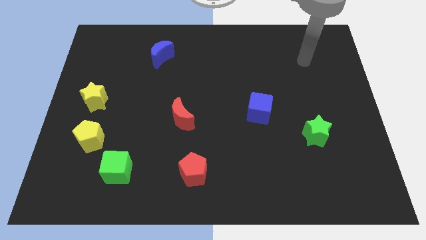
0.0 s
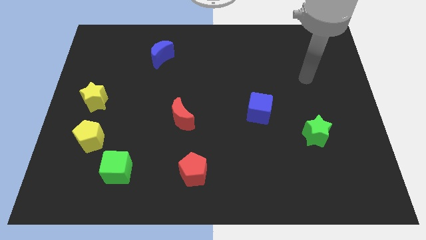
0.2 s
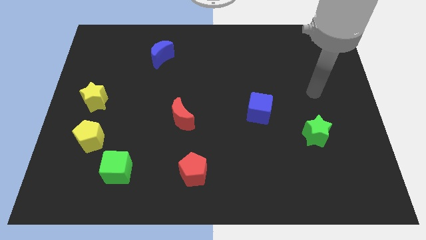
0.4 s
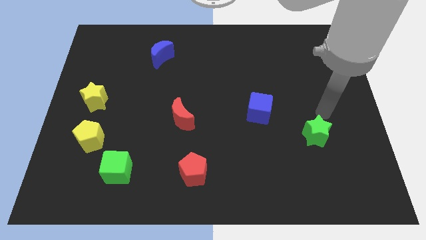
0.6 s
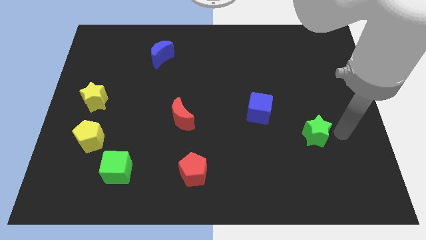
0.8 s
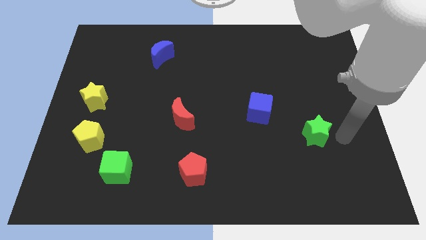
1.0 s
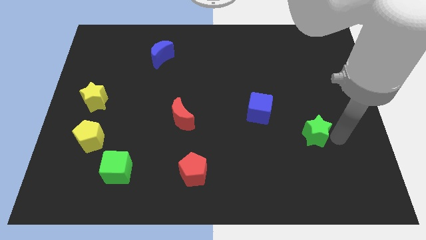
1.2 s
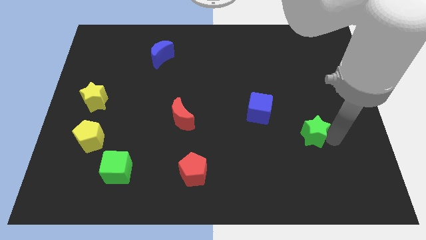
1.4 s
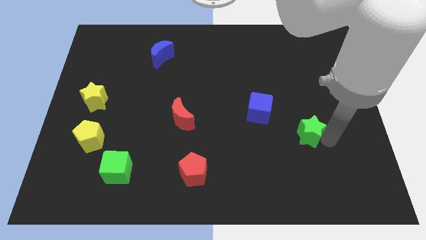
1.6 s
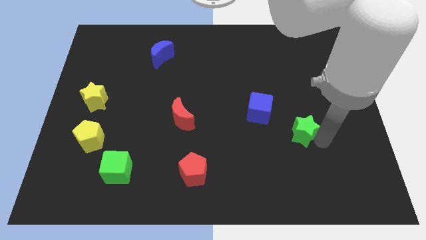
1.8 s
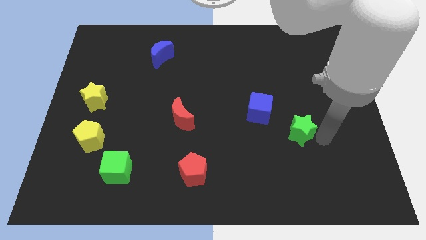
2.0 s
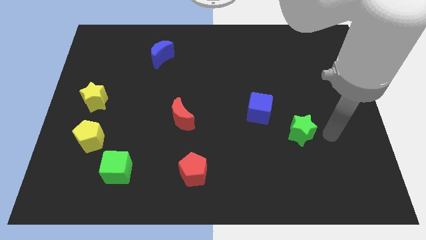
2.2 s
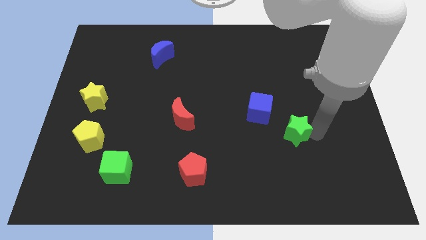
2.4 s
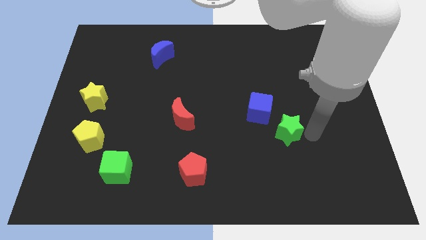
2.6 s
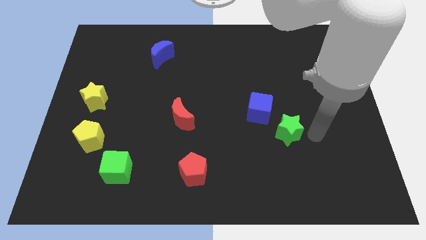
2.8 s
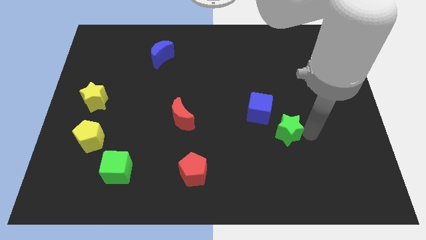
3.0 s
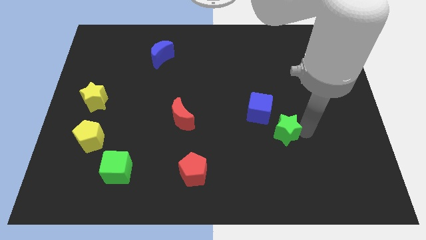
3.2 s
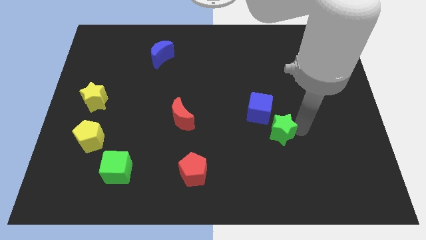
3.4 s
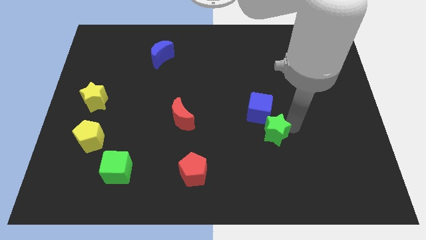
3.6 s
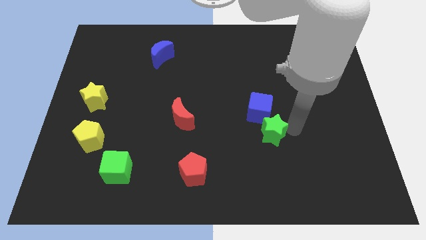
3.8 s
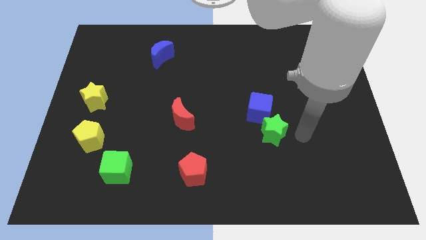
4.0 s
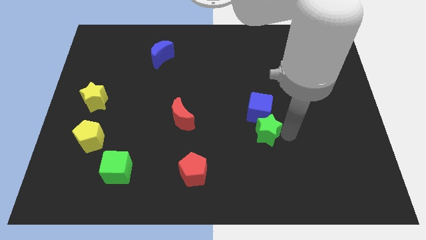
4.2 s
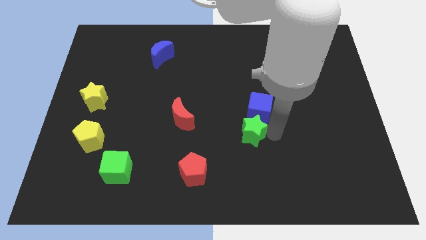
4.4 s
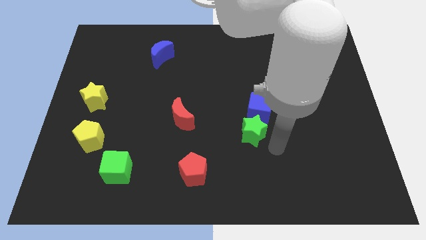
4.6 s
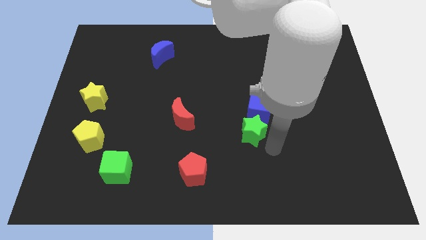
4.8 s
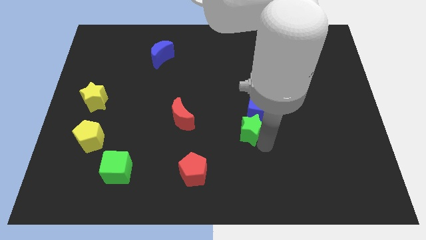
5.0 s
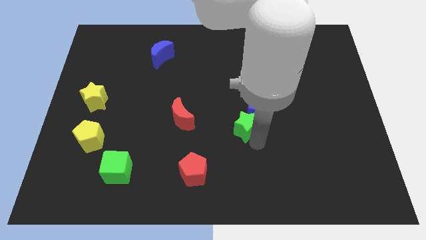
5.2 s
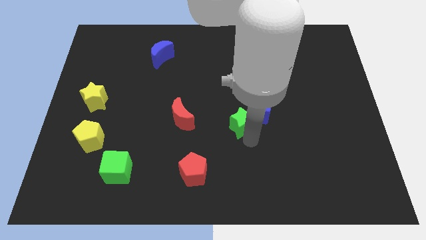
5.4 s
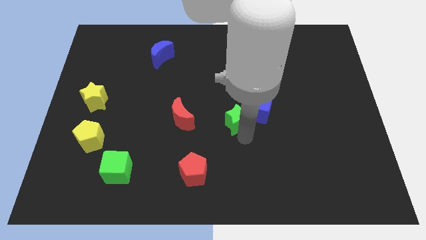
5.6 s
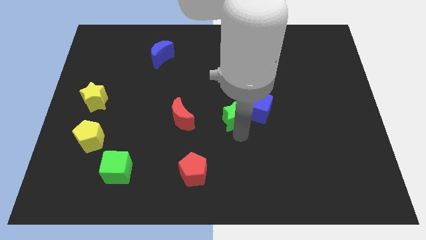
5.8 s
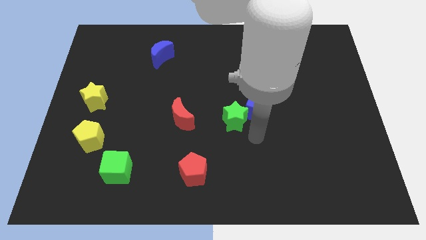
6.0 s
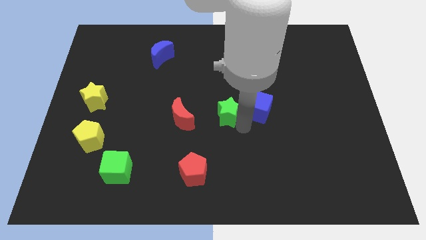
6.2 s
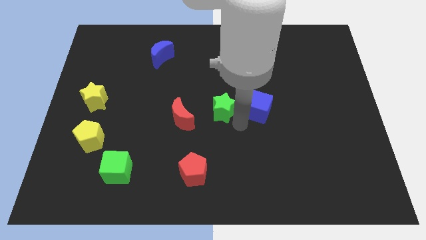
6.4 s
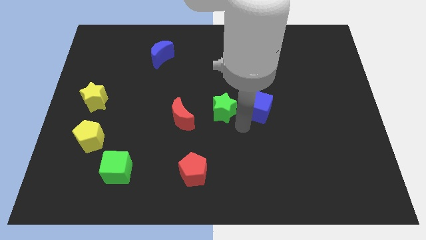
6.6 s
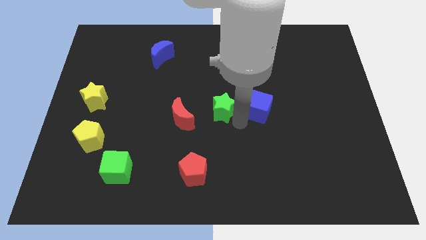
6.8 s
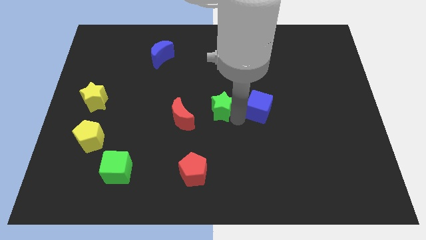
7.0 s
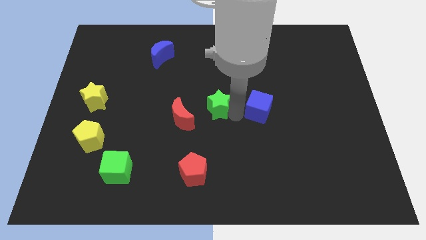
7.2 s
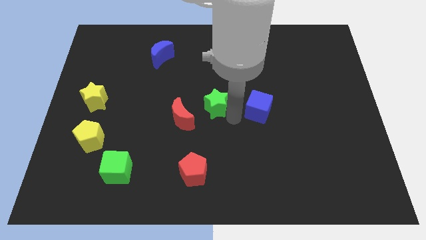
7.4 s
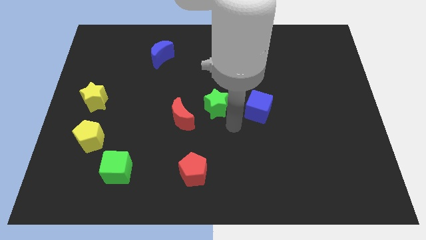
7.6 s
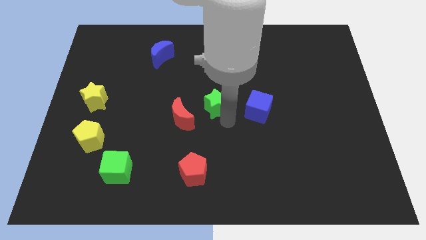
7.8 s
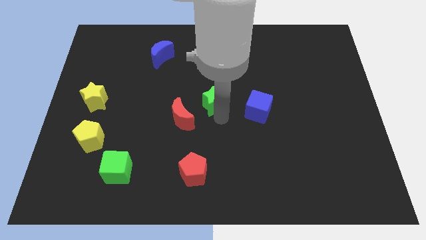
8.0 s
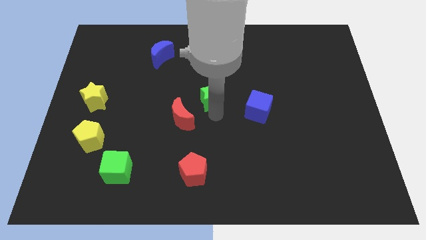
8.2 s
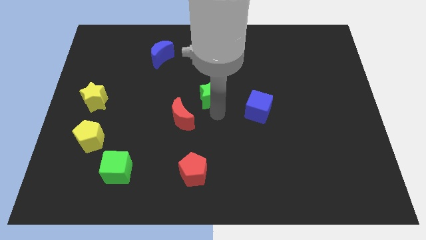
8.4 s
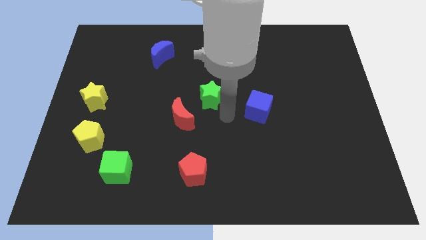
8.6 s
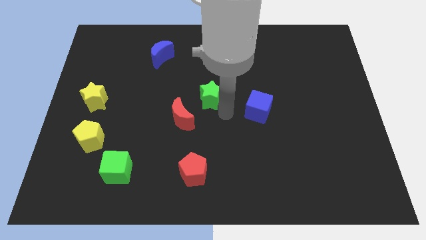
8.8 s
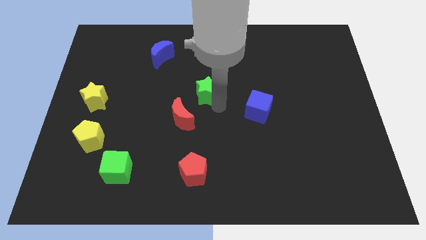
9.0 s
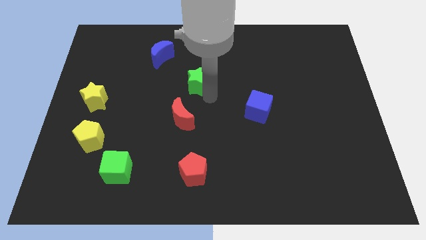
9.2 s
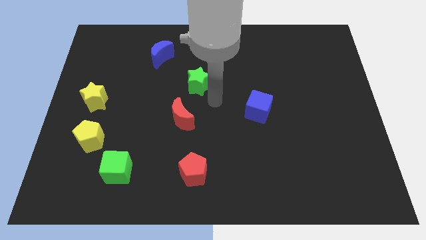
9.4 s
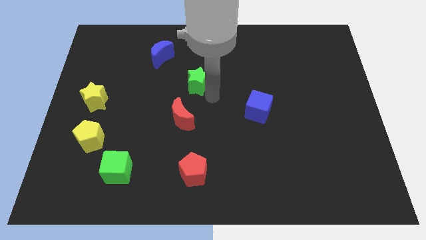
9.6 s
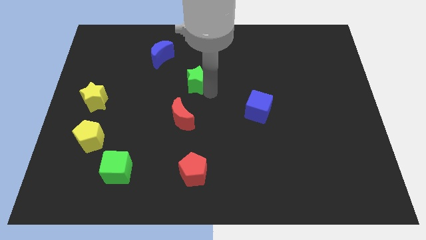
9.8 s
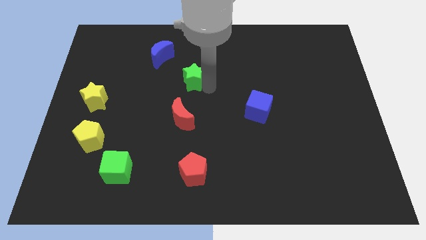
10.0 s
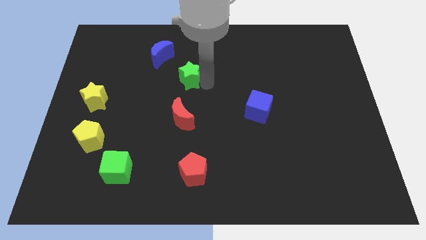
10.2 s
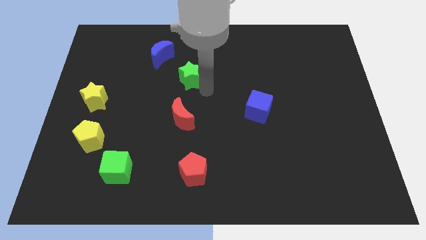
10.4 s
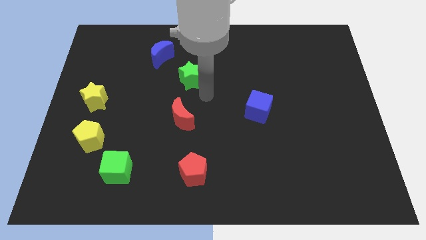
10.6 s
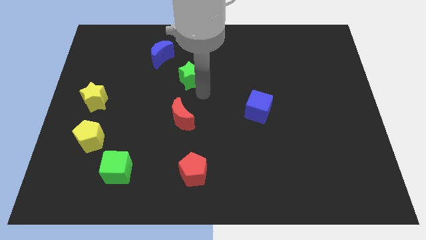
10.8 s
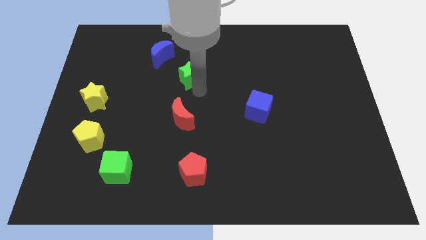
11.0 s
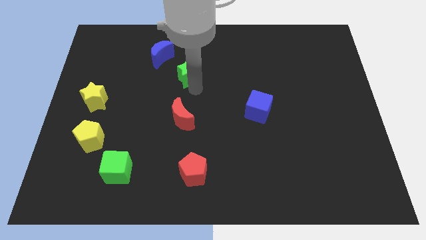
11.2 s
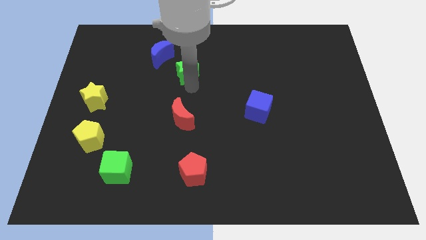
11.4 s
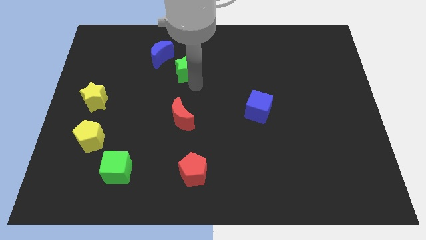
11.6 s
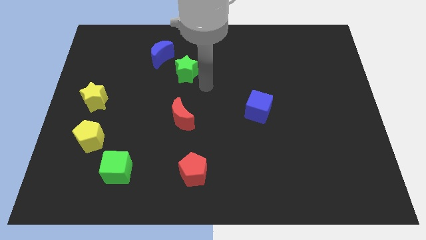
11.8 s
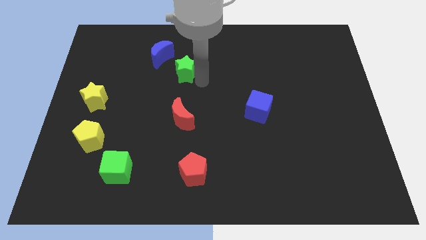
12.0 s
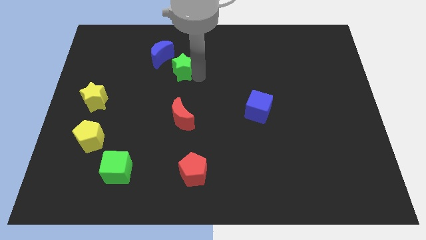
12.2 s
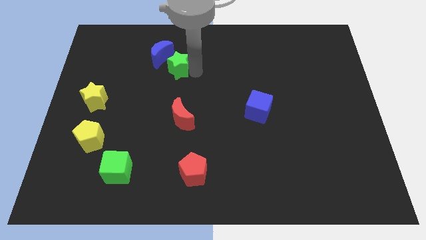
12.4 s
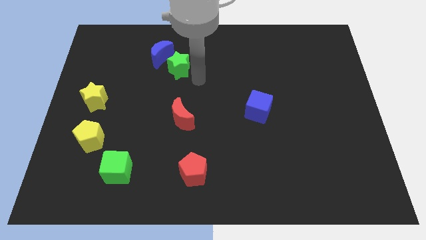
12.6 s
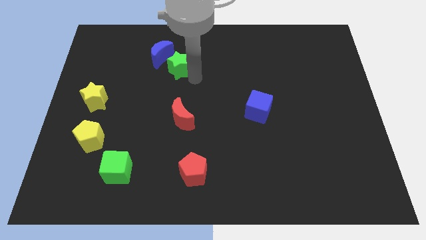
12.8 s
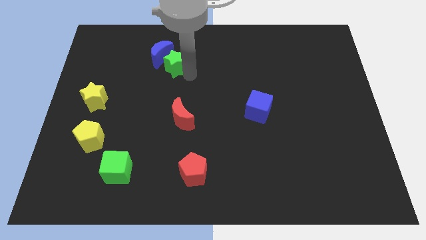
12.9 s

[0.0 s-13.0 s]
slide the green star to the blue moon
